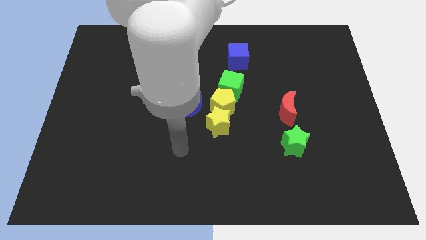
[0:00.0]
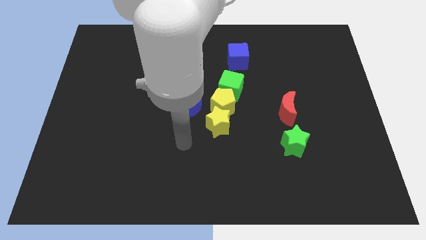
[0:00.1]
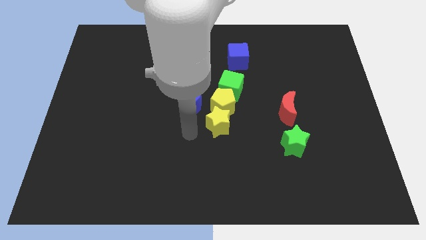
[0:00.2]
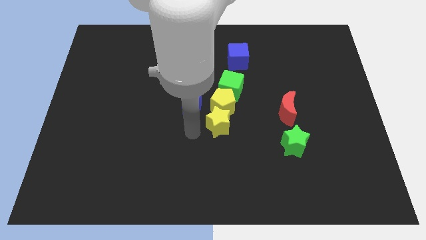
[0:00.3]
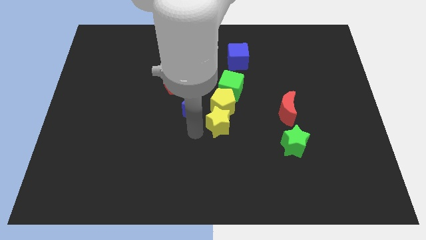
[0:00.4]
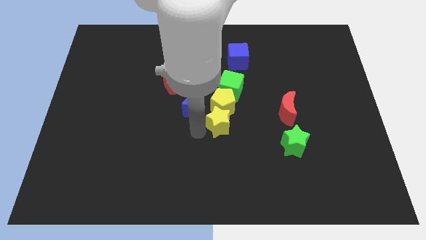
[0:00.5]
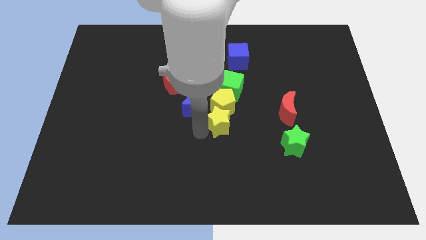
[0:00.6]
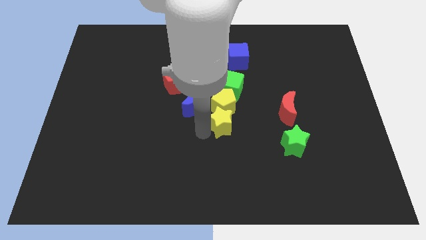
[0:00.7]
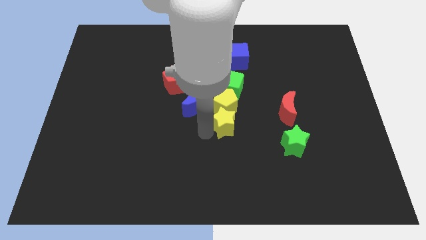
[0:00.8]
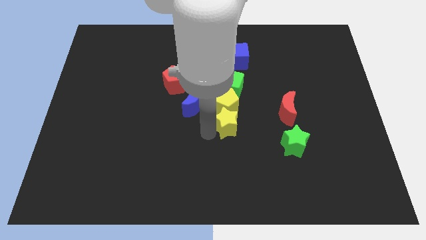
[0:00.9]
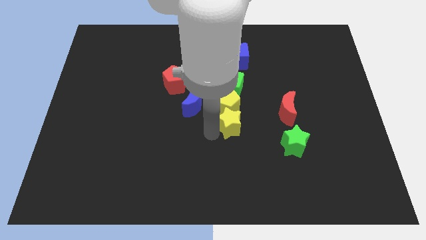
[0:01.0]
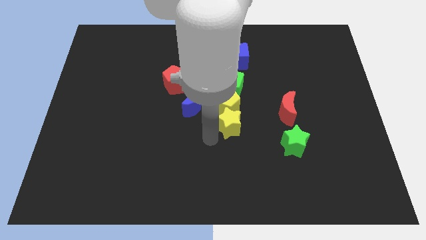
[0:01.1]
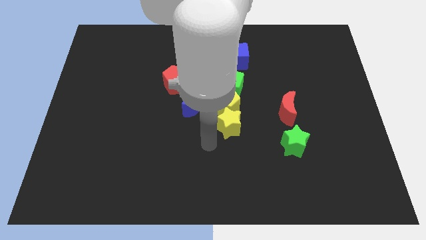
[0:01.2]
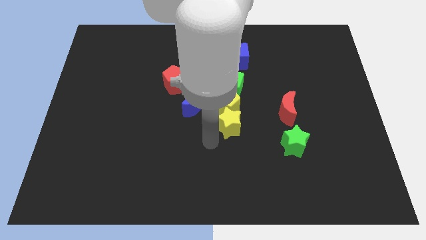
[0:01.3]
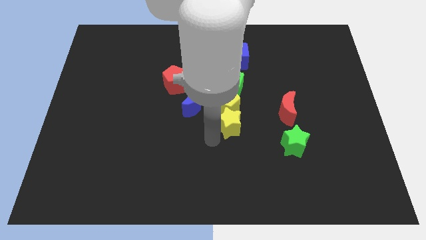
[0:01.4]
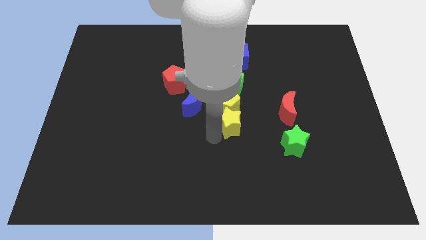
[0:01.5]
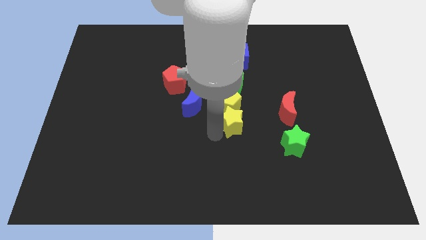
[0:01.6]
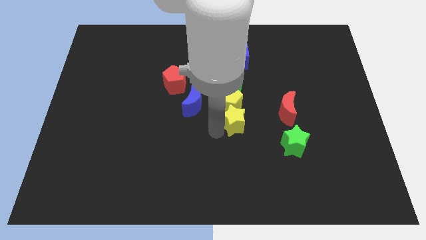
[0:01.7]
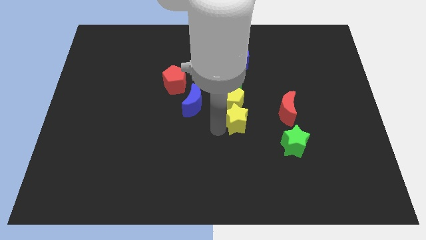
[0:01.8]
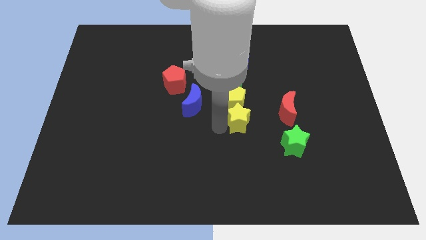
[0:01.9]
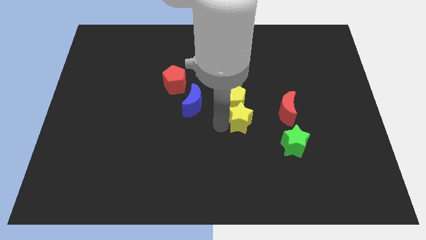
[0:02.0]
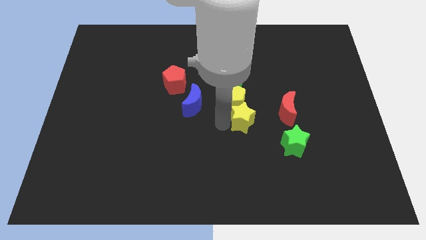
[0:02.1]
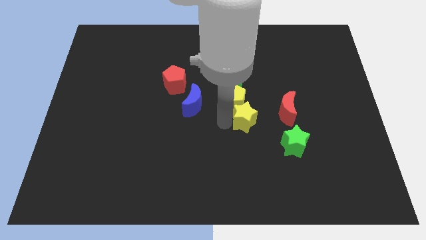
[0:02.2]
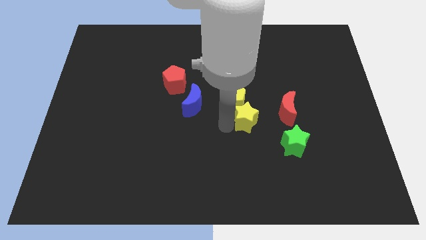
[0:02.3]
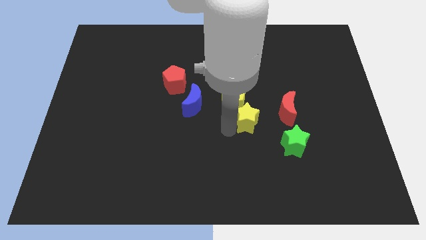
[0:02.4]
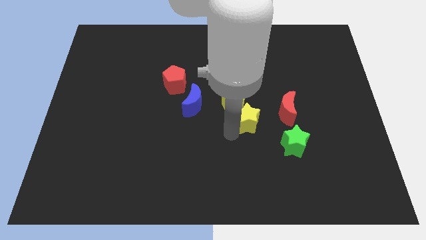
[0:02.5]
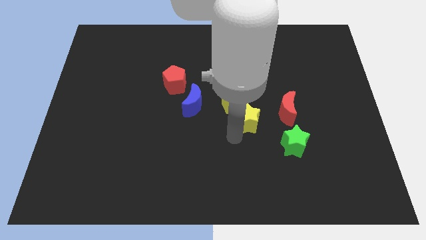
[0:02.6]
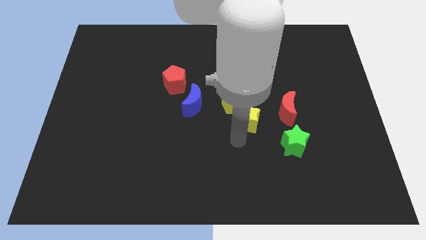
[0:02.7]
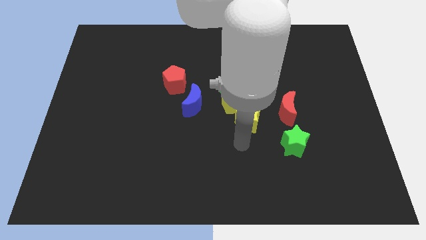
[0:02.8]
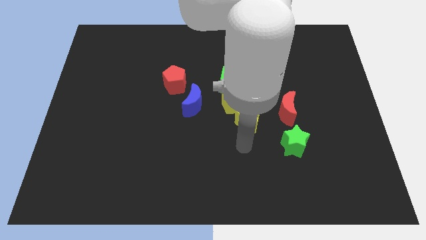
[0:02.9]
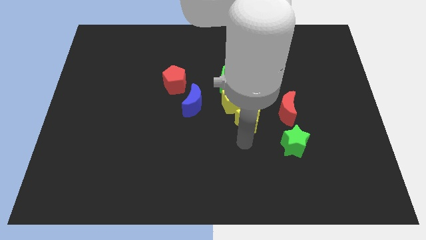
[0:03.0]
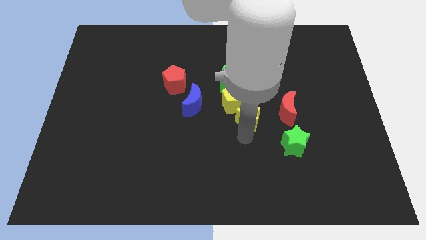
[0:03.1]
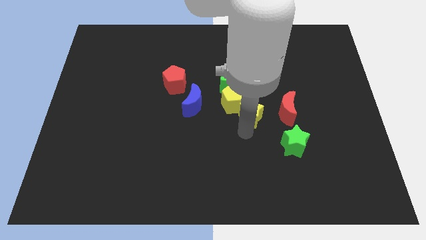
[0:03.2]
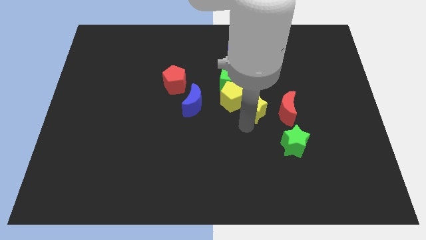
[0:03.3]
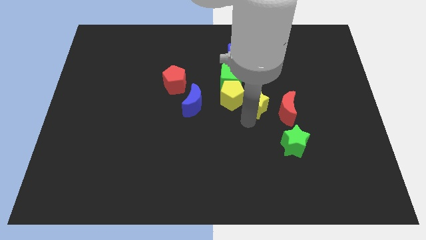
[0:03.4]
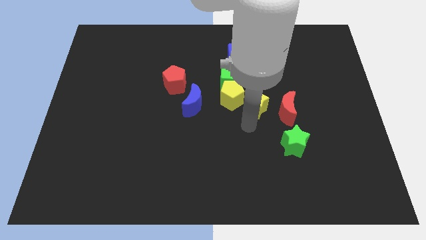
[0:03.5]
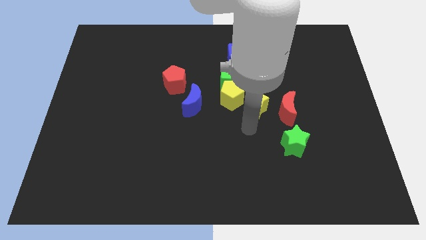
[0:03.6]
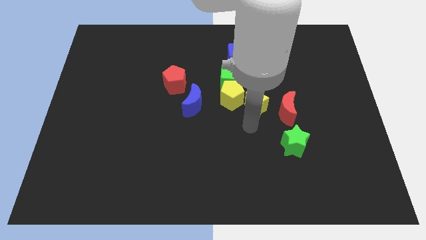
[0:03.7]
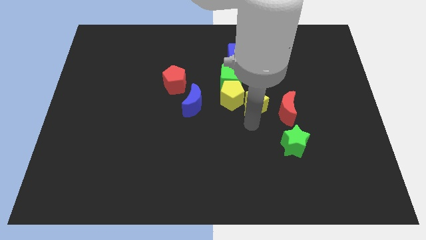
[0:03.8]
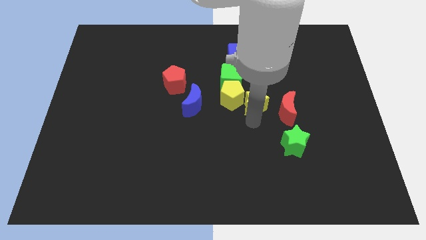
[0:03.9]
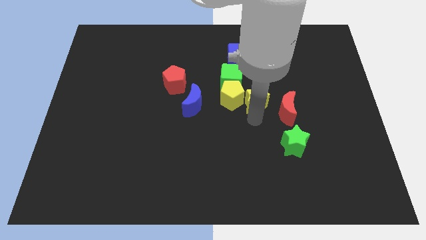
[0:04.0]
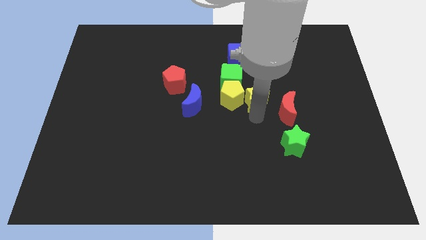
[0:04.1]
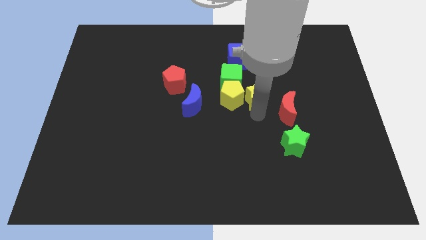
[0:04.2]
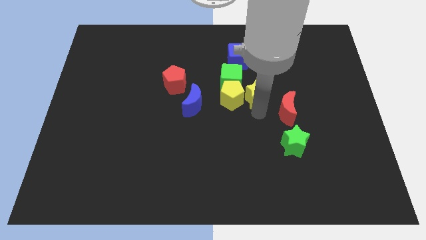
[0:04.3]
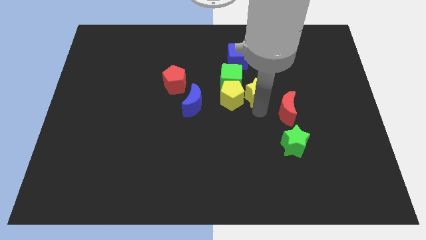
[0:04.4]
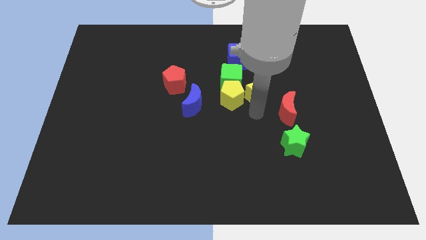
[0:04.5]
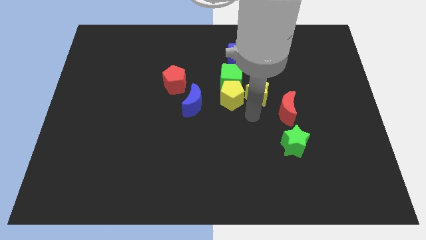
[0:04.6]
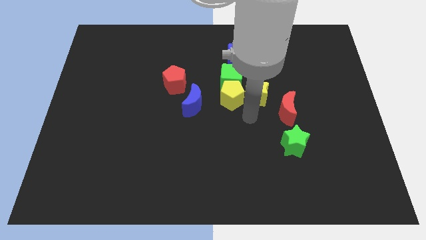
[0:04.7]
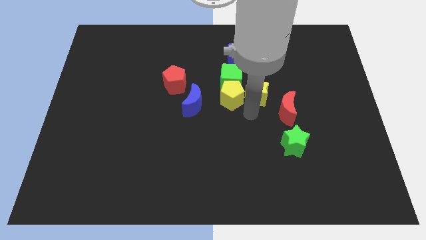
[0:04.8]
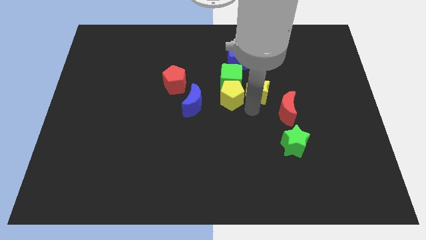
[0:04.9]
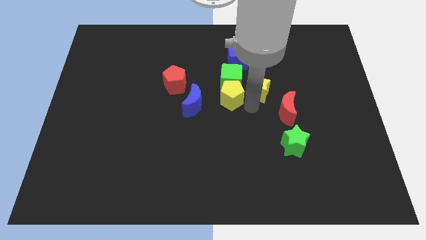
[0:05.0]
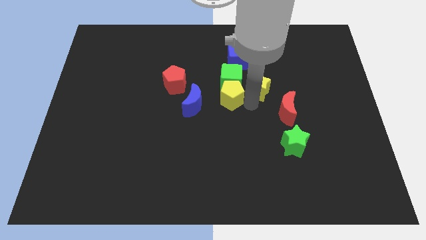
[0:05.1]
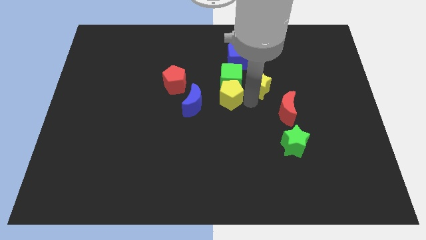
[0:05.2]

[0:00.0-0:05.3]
slightly move the yellow star upwards

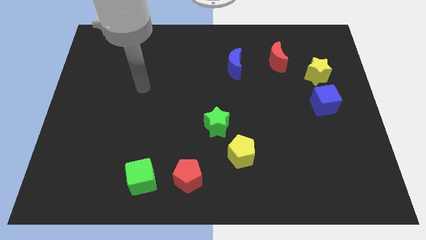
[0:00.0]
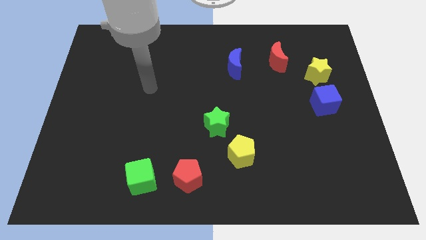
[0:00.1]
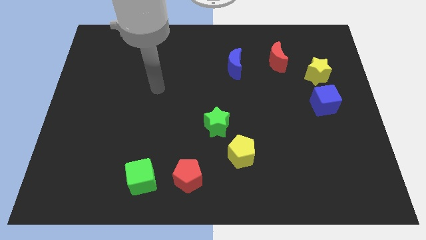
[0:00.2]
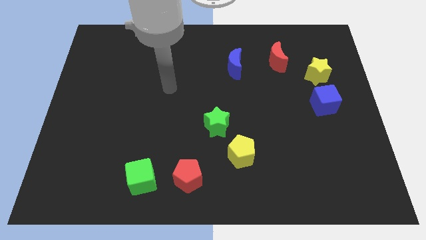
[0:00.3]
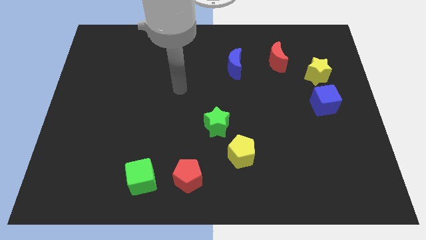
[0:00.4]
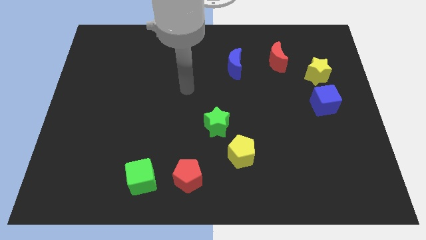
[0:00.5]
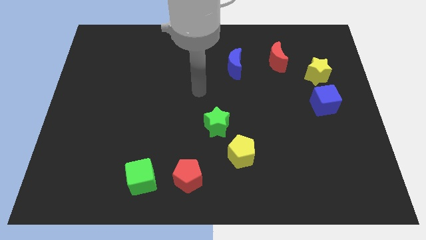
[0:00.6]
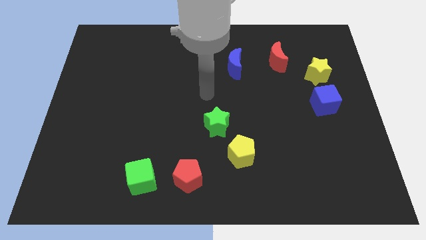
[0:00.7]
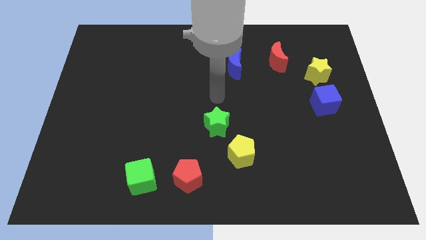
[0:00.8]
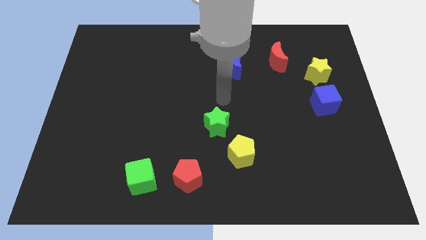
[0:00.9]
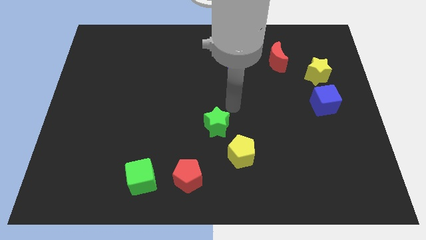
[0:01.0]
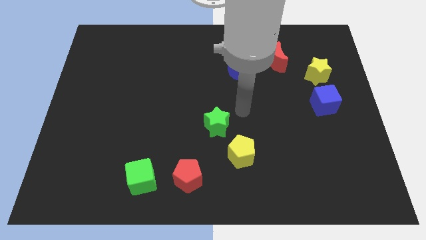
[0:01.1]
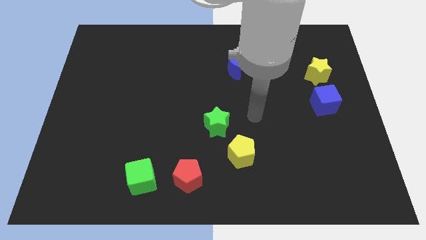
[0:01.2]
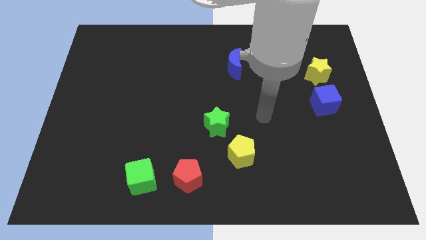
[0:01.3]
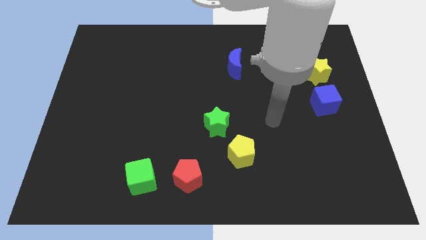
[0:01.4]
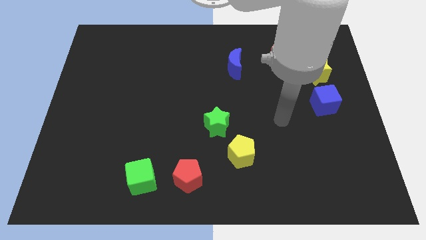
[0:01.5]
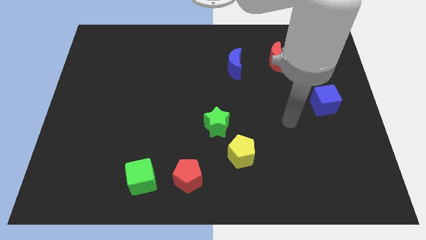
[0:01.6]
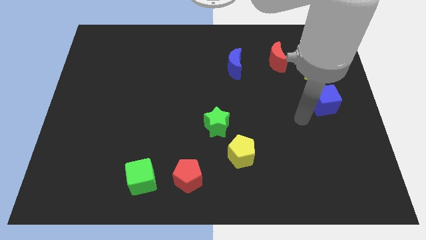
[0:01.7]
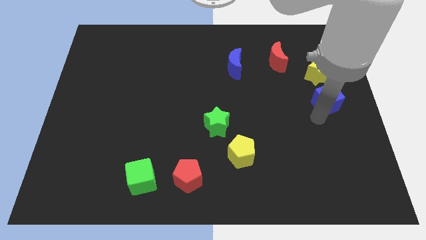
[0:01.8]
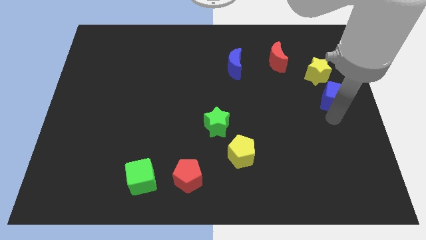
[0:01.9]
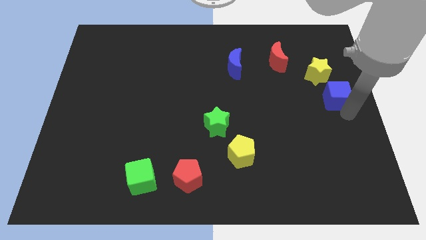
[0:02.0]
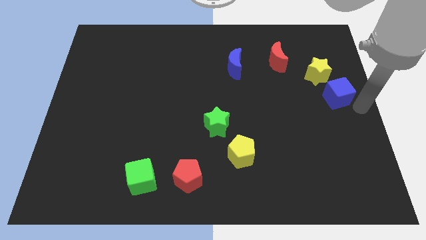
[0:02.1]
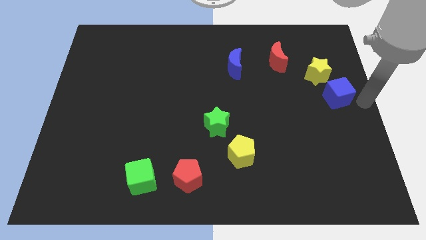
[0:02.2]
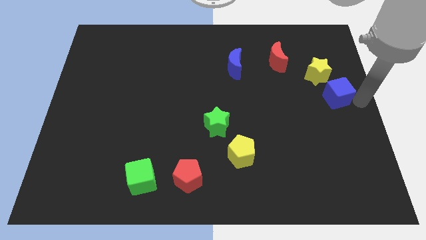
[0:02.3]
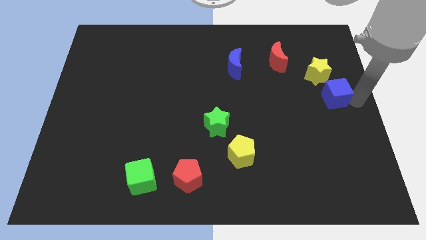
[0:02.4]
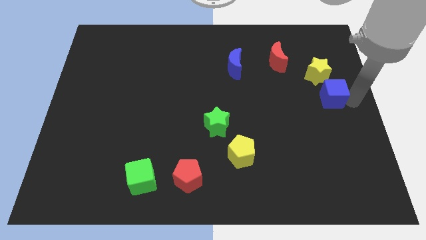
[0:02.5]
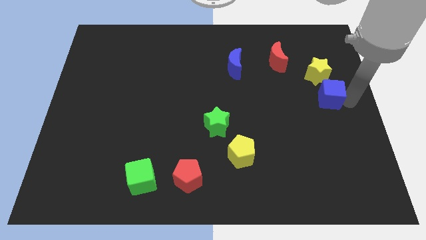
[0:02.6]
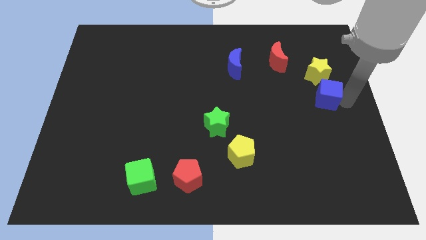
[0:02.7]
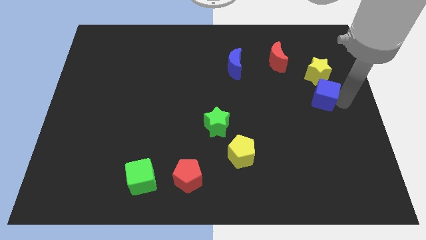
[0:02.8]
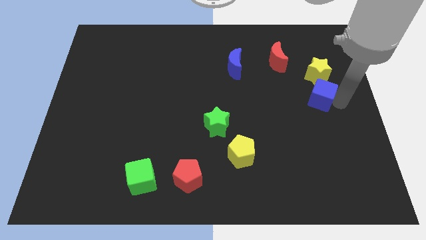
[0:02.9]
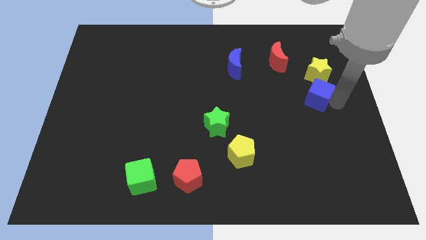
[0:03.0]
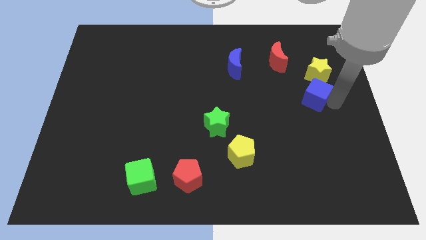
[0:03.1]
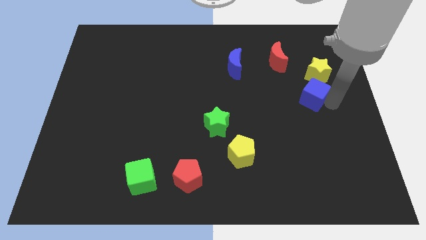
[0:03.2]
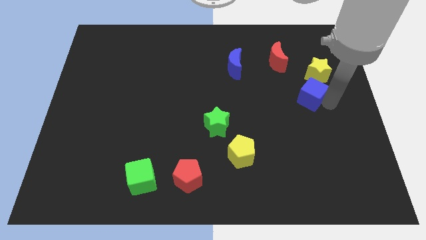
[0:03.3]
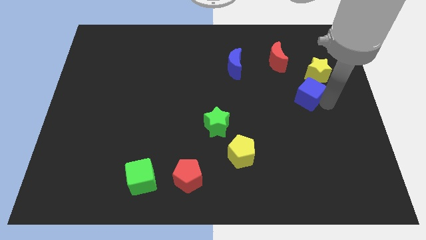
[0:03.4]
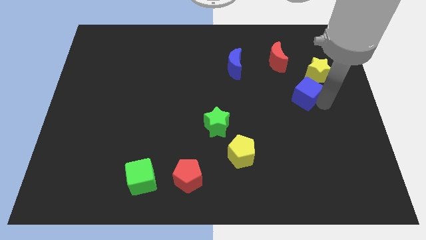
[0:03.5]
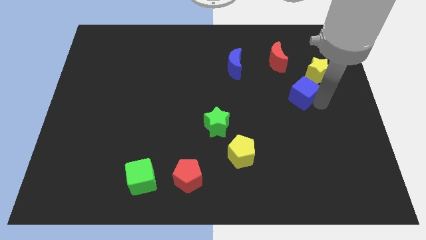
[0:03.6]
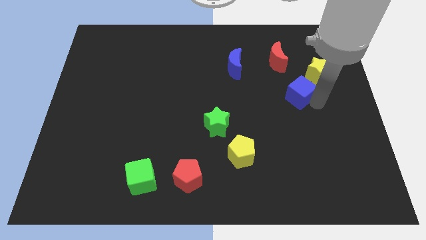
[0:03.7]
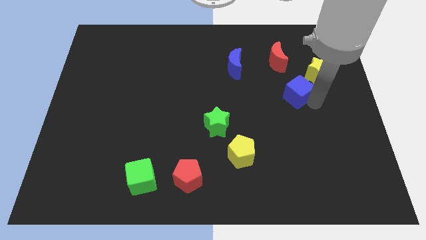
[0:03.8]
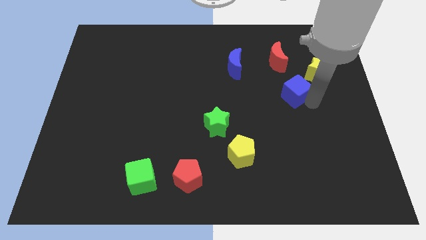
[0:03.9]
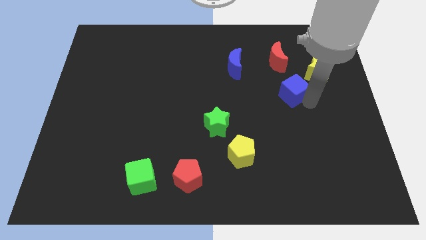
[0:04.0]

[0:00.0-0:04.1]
move the blue cube upwards and then left a little
